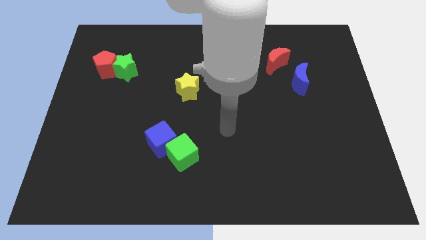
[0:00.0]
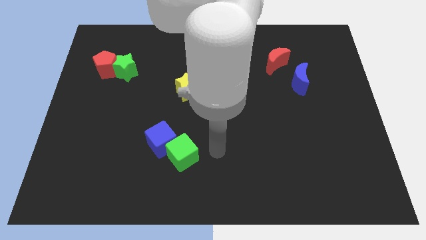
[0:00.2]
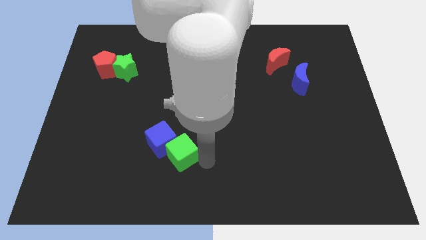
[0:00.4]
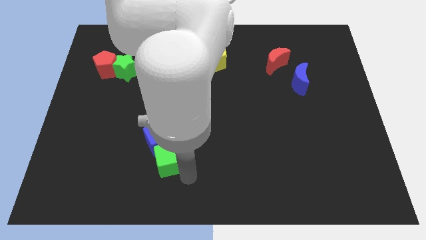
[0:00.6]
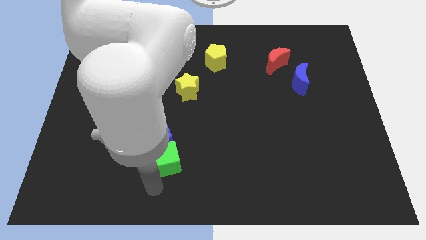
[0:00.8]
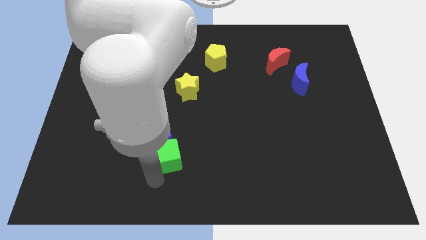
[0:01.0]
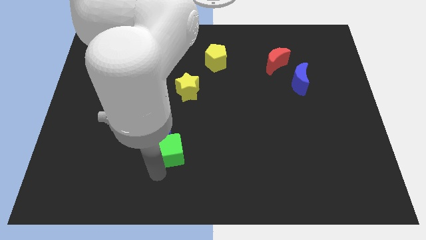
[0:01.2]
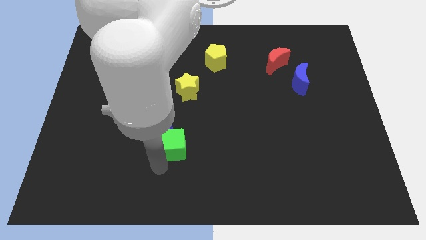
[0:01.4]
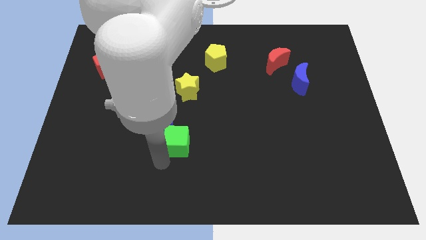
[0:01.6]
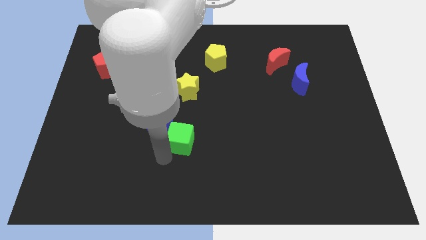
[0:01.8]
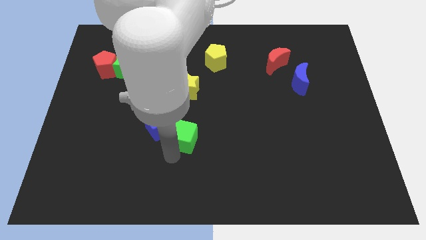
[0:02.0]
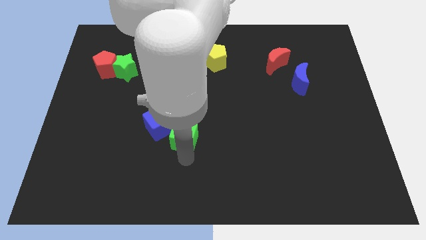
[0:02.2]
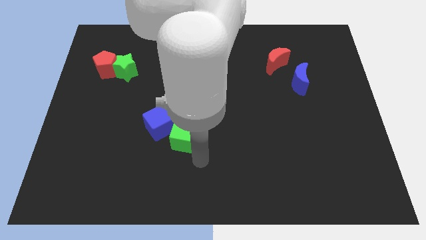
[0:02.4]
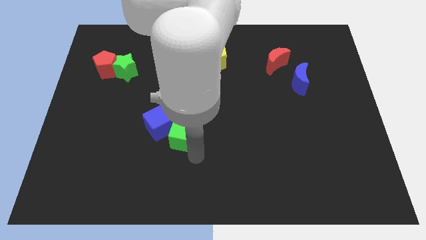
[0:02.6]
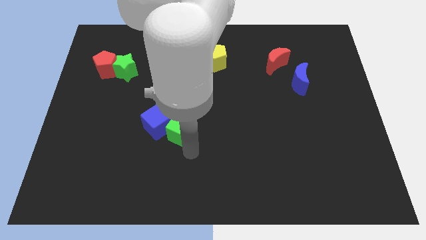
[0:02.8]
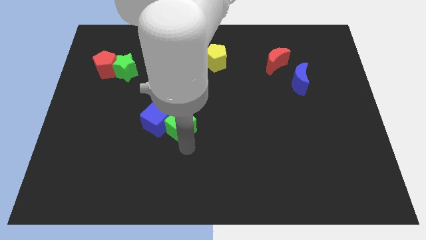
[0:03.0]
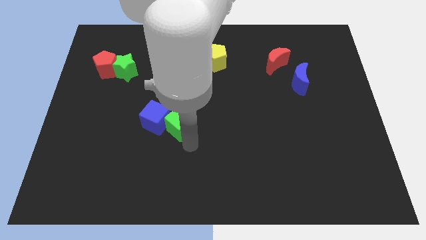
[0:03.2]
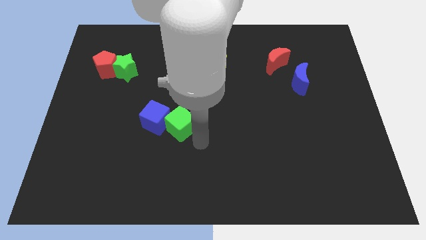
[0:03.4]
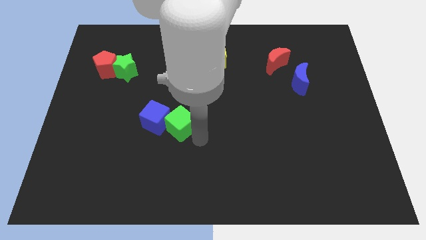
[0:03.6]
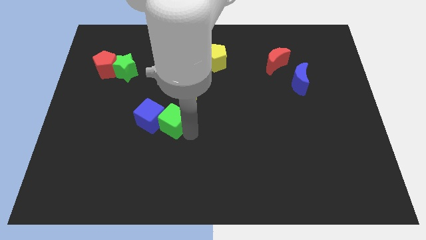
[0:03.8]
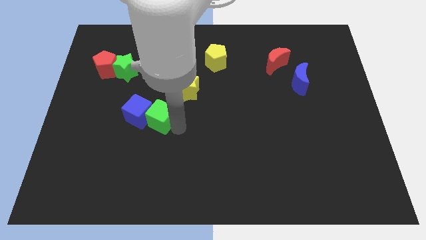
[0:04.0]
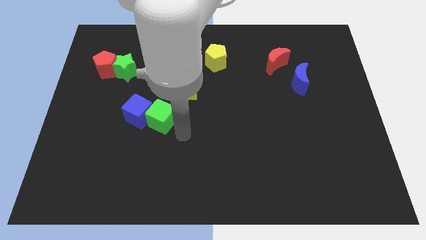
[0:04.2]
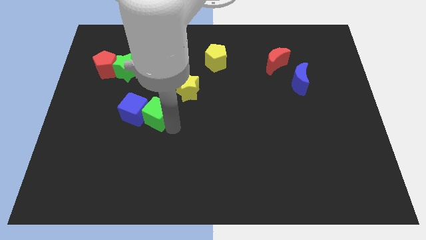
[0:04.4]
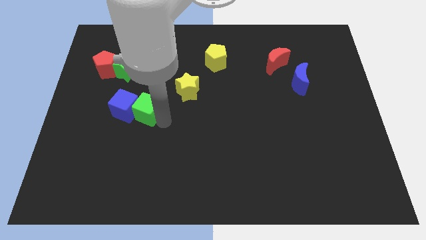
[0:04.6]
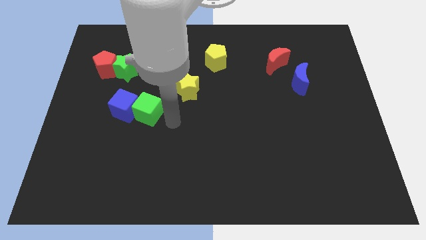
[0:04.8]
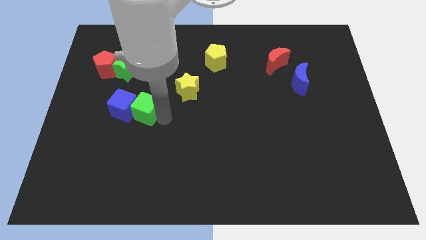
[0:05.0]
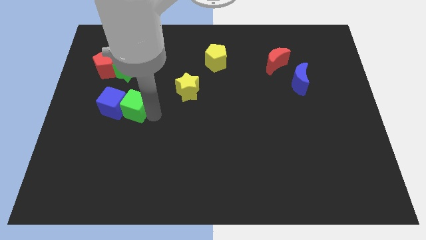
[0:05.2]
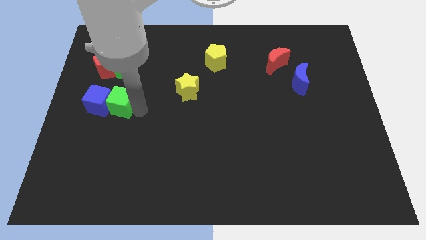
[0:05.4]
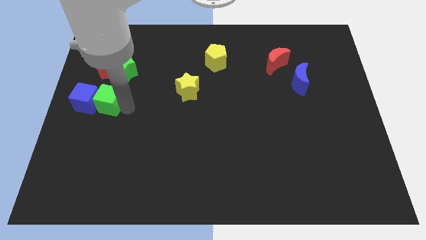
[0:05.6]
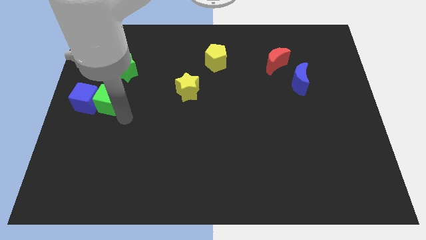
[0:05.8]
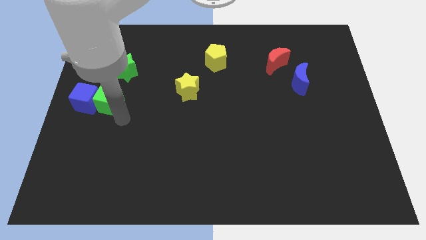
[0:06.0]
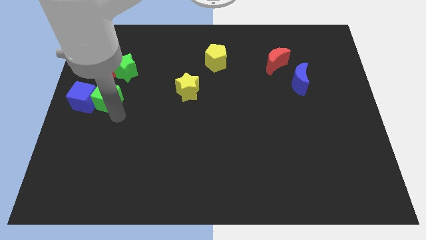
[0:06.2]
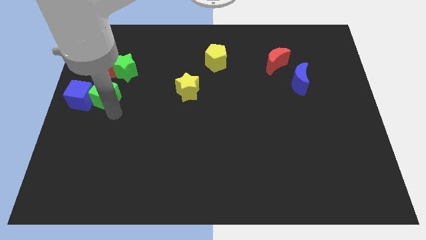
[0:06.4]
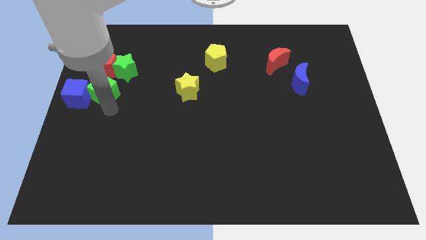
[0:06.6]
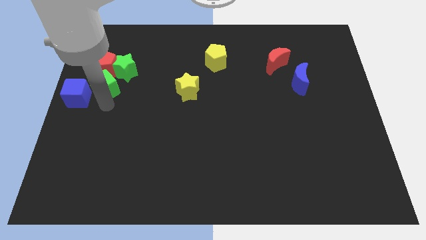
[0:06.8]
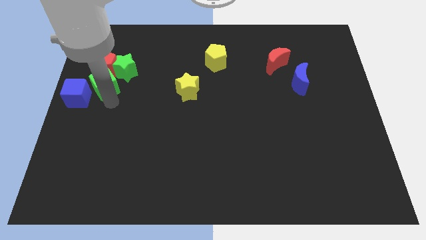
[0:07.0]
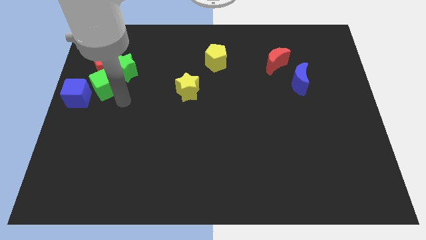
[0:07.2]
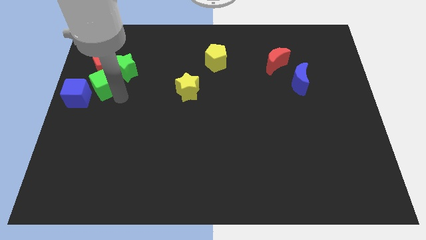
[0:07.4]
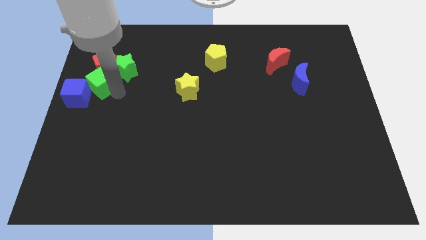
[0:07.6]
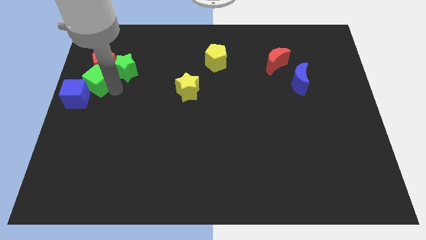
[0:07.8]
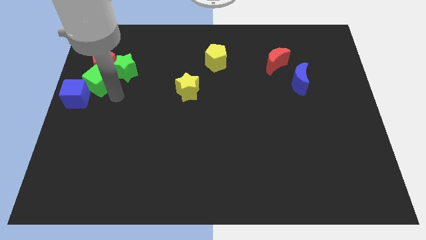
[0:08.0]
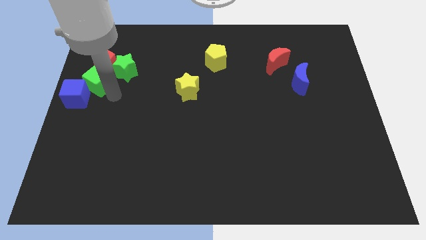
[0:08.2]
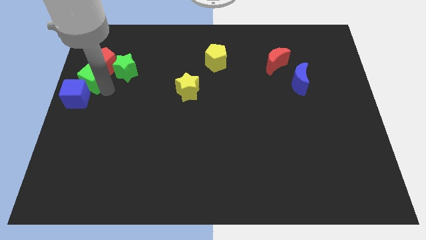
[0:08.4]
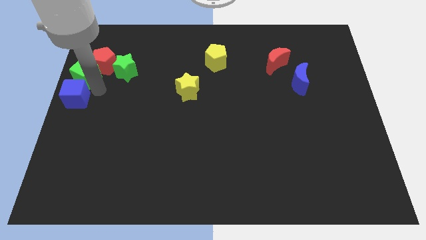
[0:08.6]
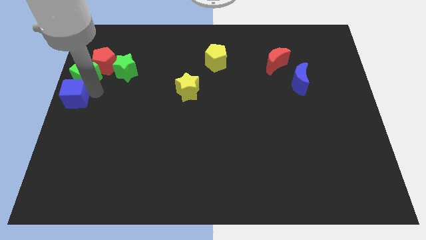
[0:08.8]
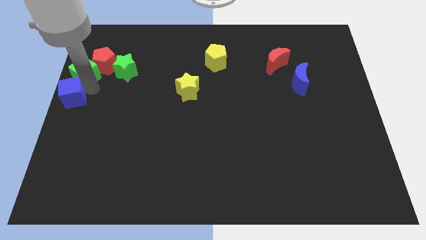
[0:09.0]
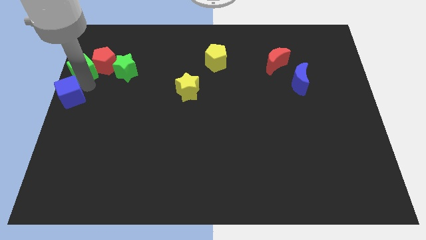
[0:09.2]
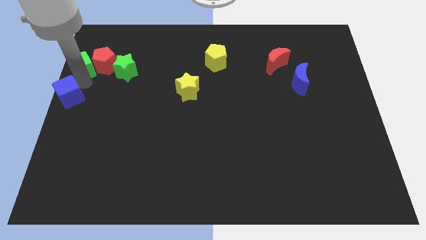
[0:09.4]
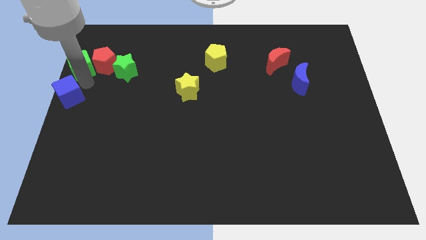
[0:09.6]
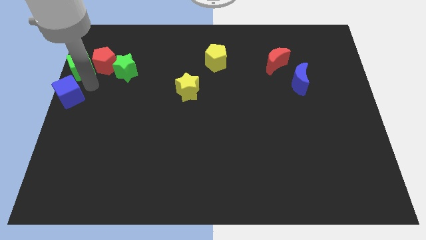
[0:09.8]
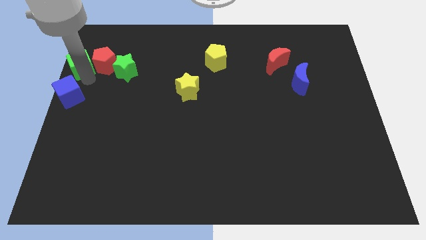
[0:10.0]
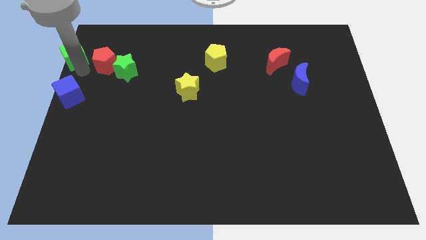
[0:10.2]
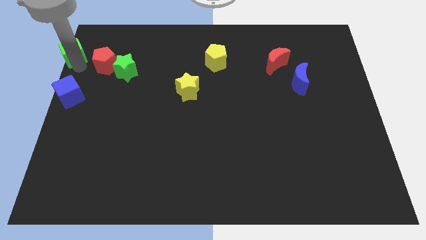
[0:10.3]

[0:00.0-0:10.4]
put the green cube to the upper left corner

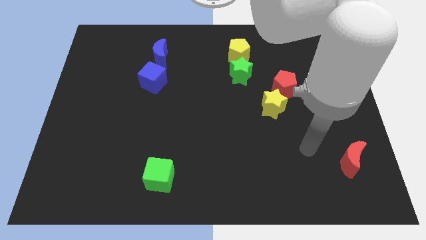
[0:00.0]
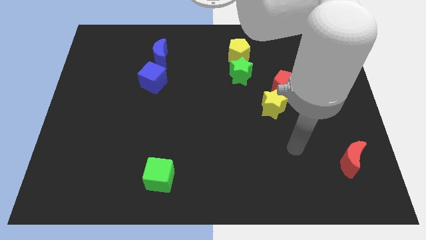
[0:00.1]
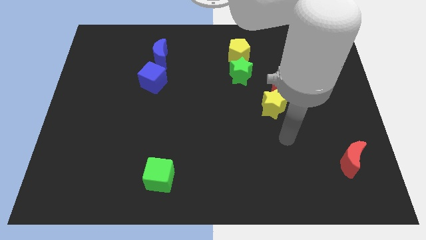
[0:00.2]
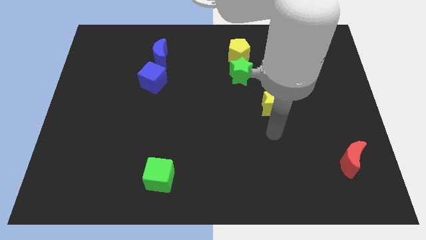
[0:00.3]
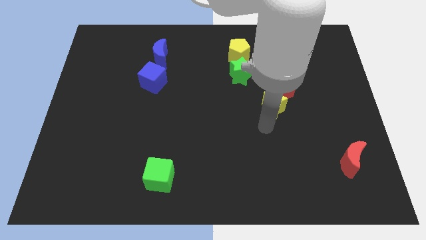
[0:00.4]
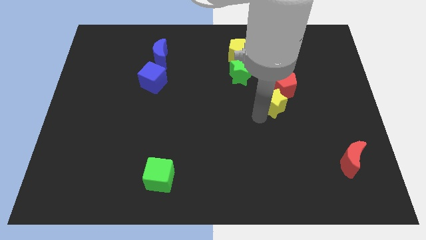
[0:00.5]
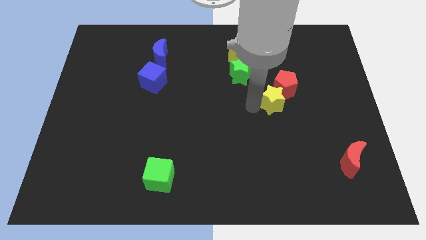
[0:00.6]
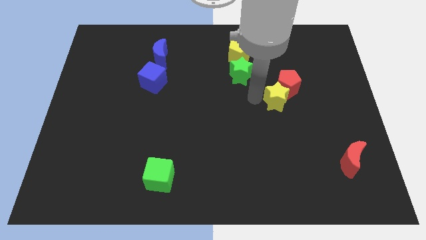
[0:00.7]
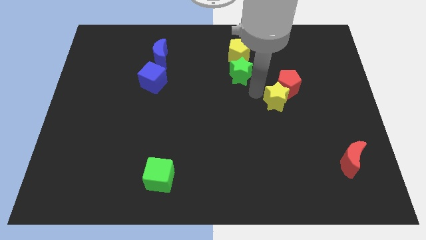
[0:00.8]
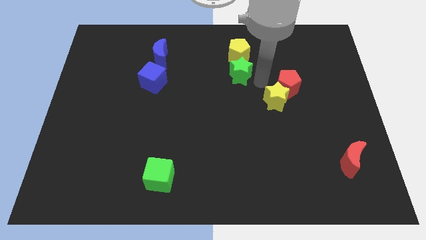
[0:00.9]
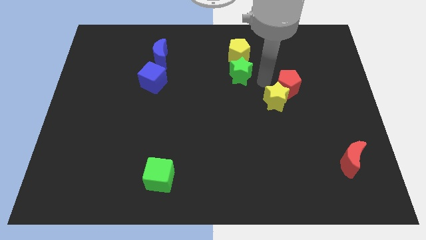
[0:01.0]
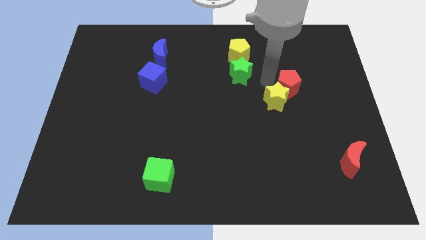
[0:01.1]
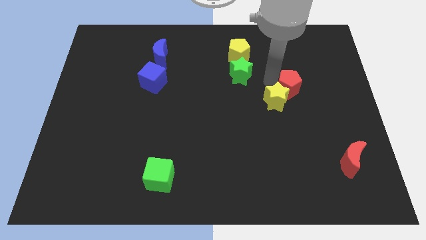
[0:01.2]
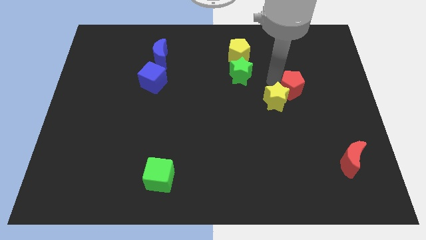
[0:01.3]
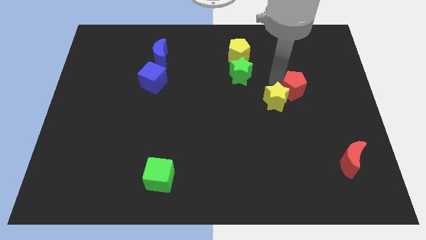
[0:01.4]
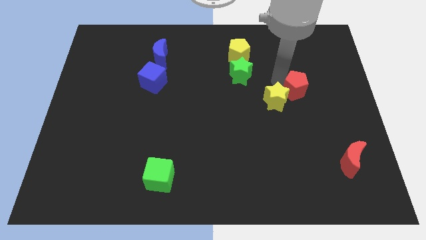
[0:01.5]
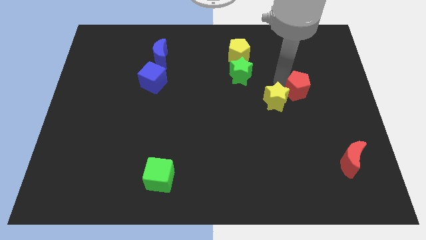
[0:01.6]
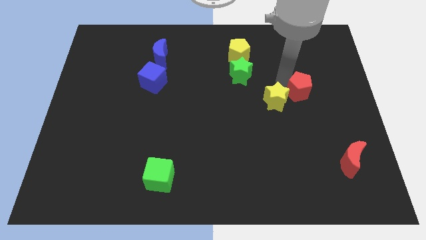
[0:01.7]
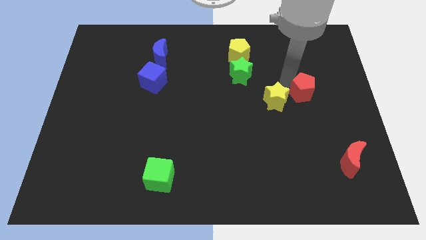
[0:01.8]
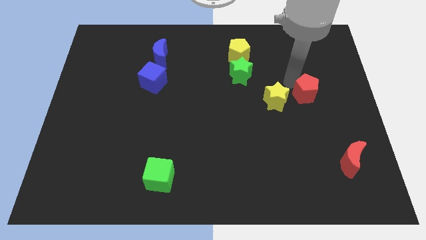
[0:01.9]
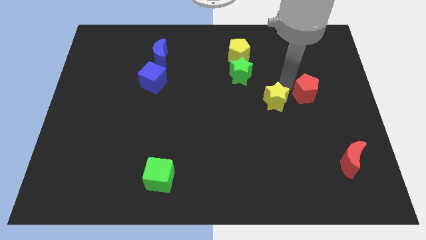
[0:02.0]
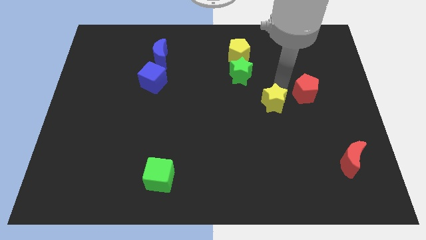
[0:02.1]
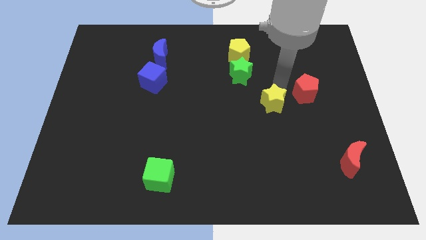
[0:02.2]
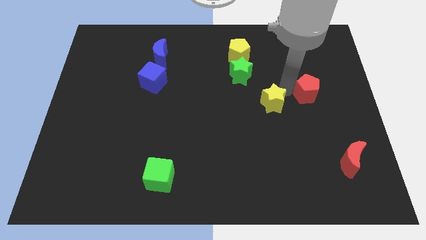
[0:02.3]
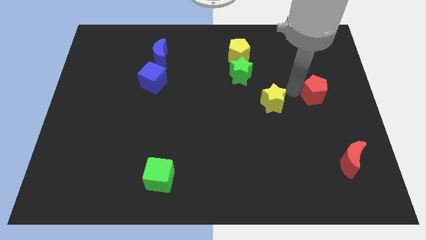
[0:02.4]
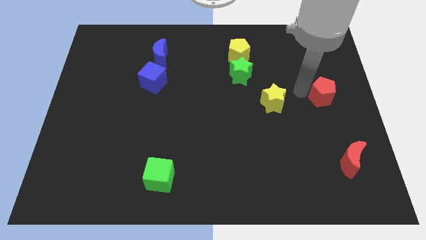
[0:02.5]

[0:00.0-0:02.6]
push the red pentagon to the center right
